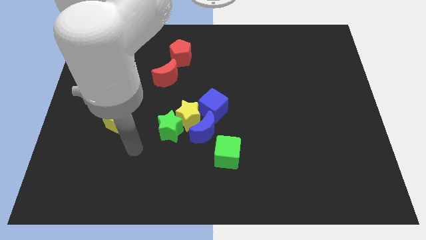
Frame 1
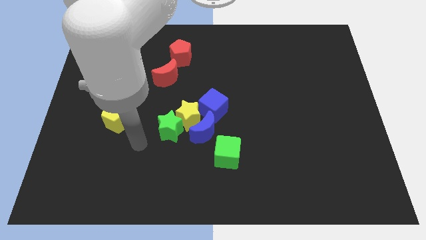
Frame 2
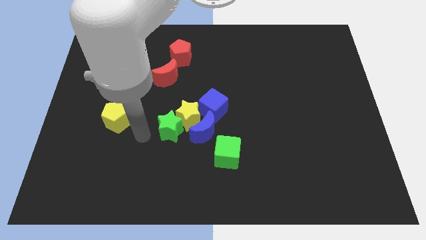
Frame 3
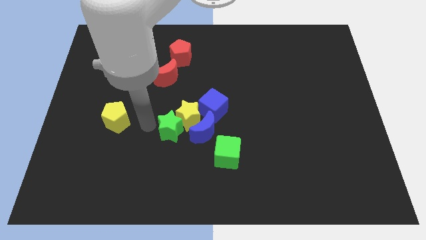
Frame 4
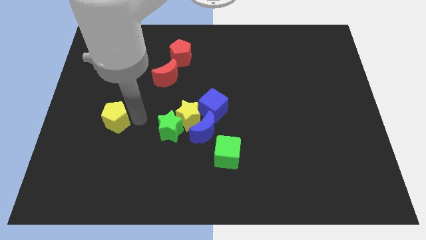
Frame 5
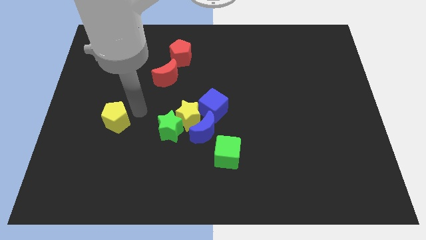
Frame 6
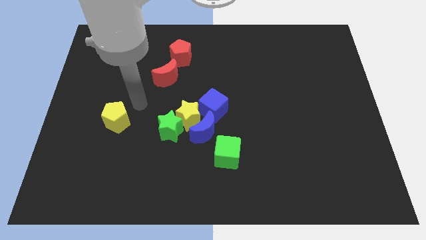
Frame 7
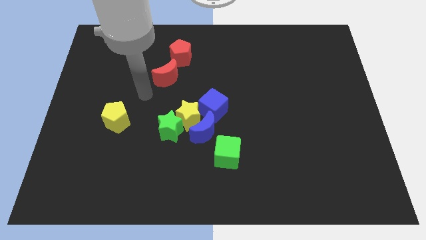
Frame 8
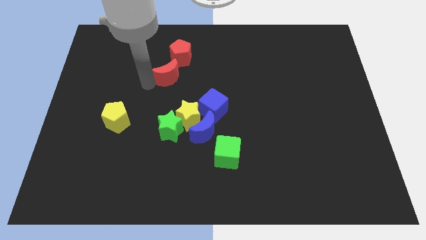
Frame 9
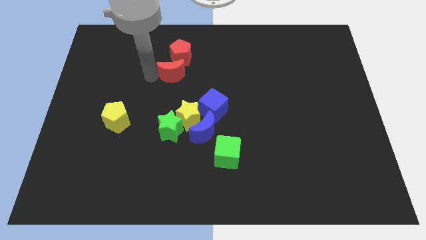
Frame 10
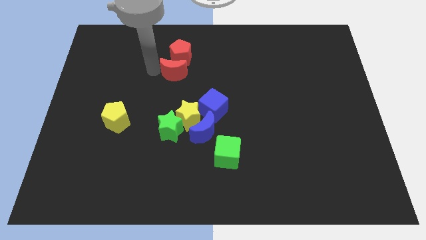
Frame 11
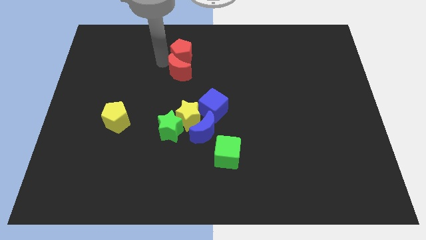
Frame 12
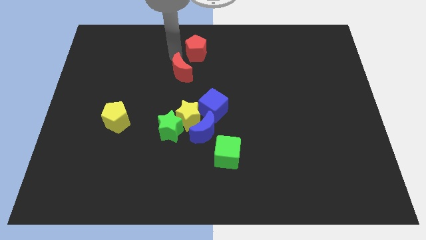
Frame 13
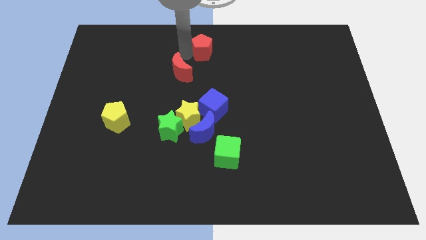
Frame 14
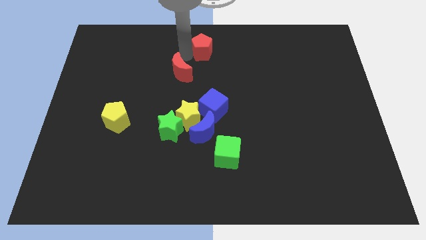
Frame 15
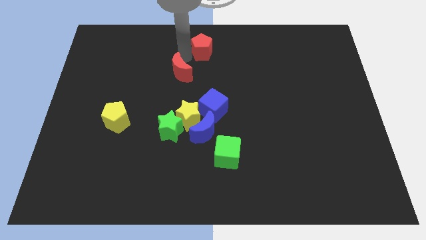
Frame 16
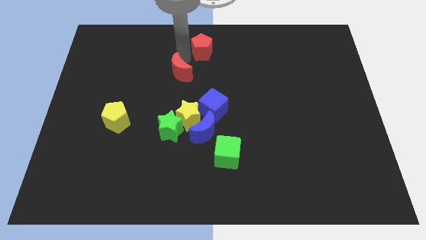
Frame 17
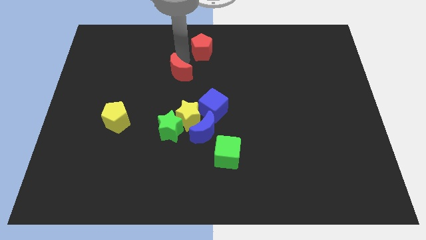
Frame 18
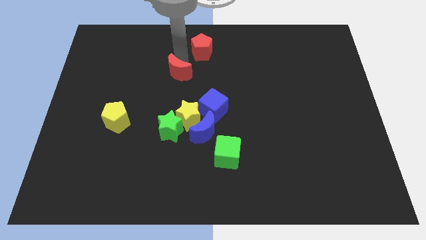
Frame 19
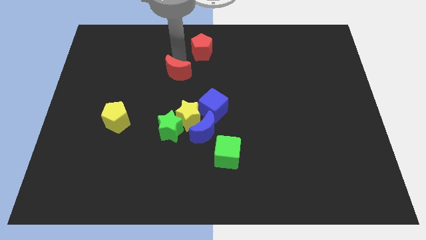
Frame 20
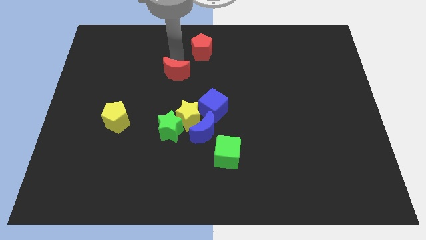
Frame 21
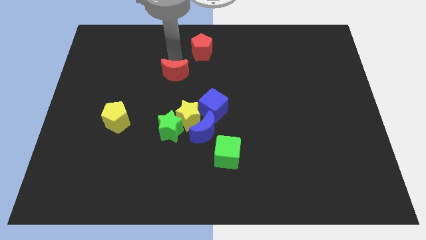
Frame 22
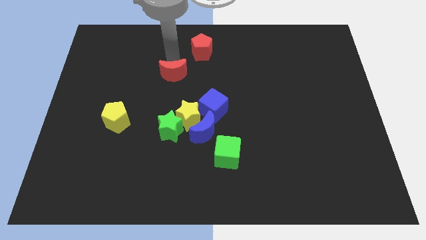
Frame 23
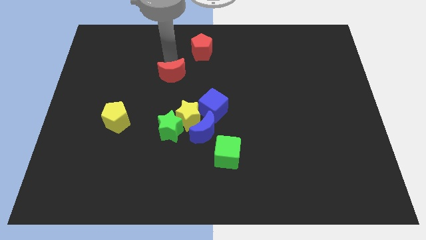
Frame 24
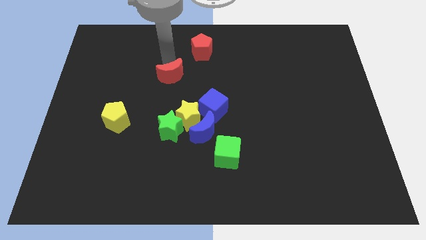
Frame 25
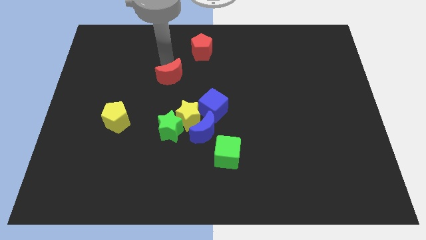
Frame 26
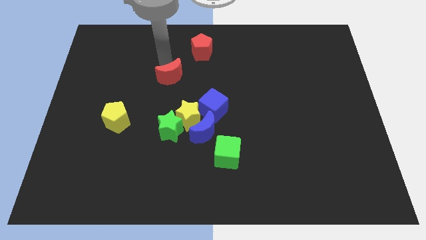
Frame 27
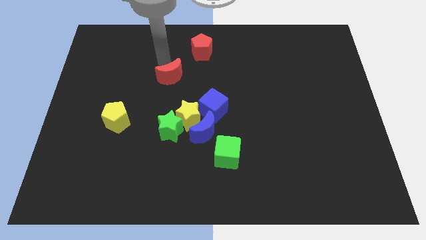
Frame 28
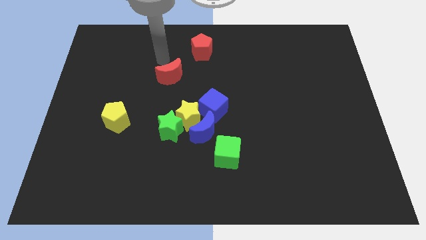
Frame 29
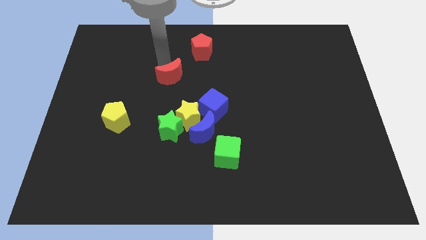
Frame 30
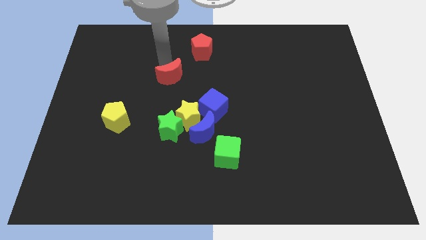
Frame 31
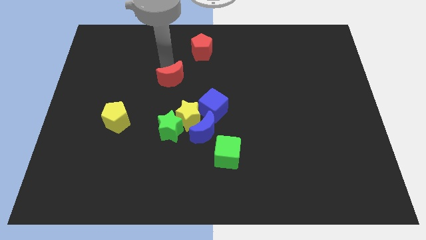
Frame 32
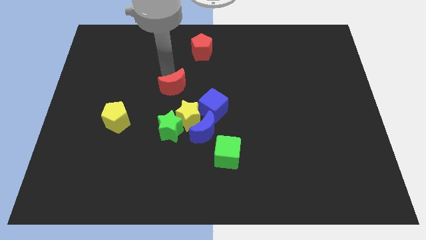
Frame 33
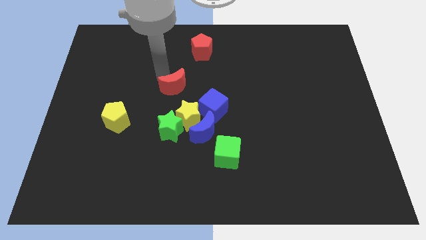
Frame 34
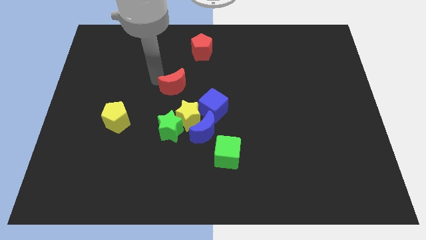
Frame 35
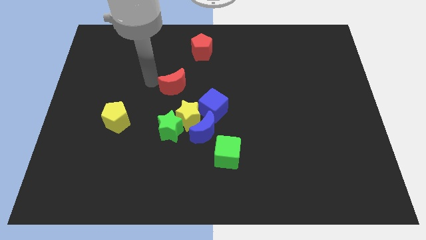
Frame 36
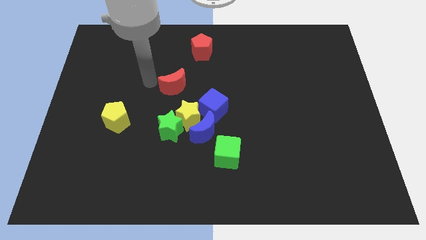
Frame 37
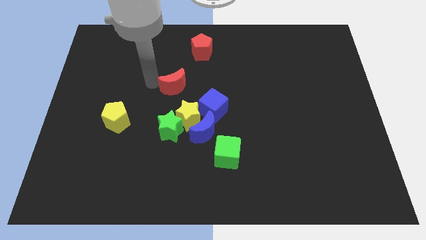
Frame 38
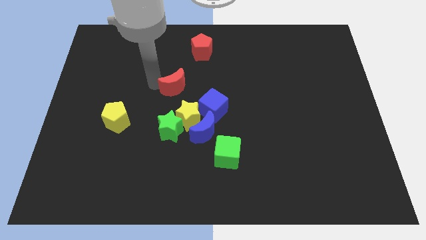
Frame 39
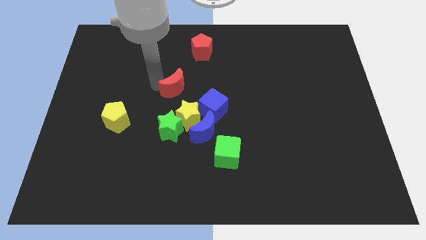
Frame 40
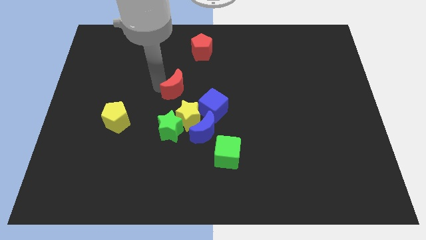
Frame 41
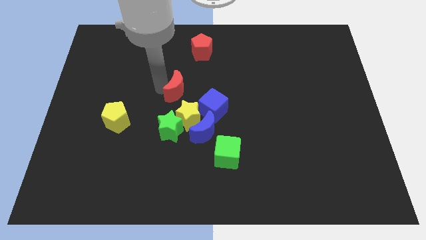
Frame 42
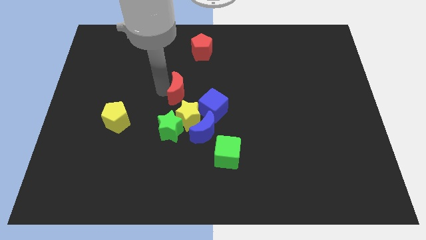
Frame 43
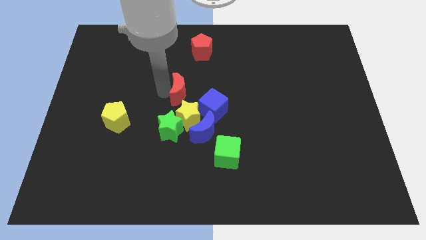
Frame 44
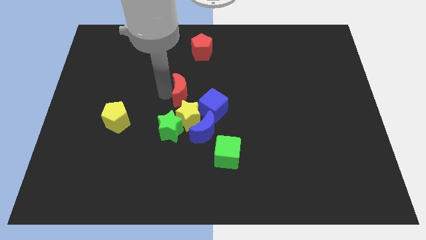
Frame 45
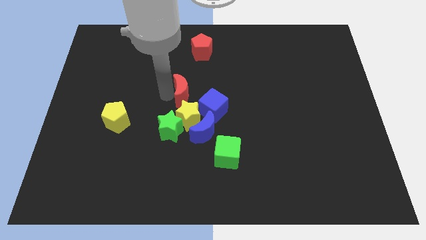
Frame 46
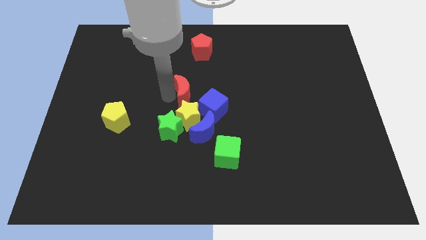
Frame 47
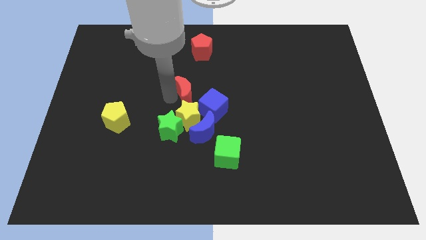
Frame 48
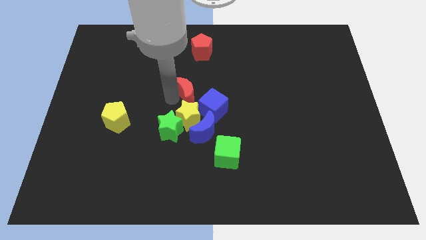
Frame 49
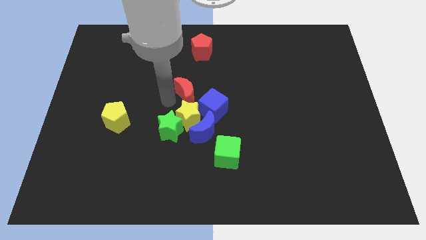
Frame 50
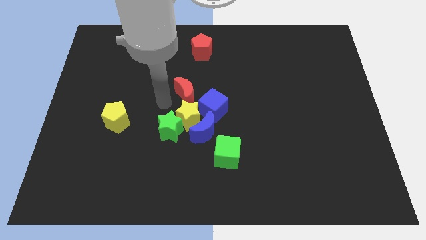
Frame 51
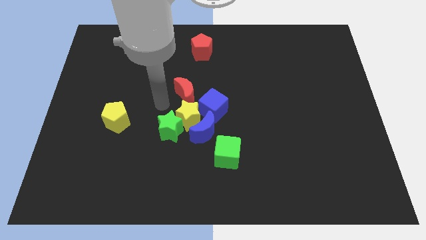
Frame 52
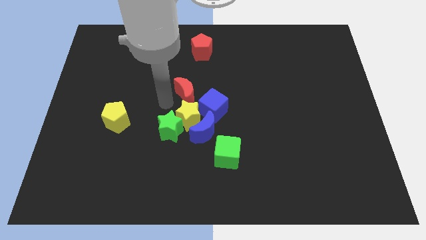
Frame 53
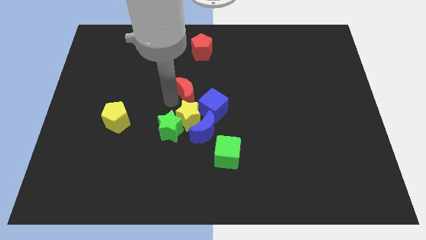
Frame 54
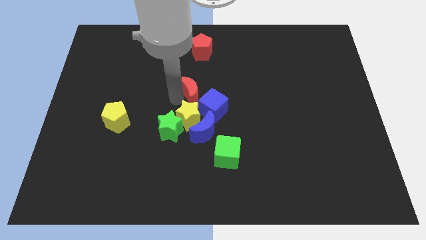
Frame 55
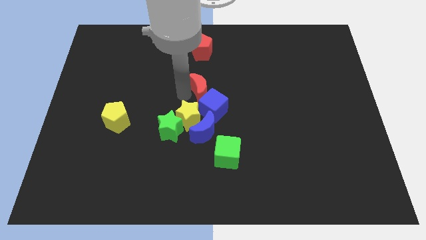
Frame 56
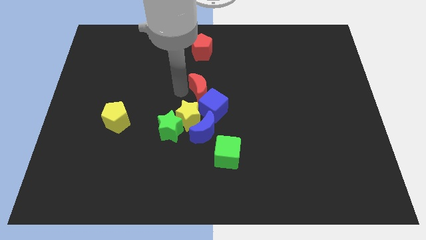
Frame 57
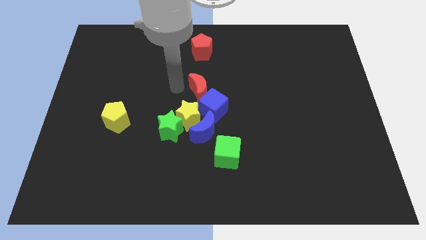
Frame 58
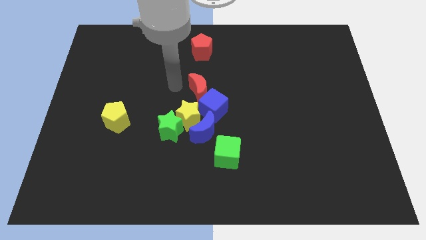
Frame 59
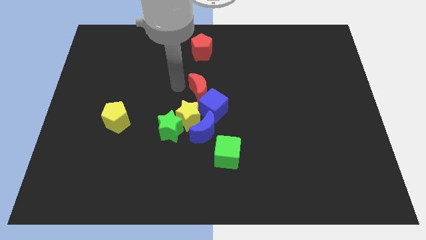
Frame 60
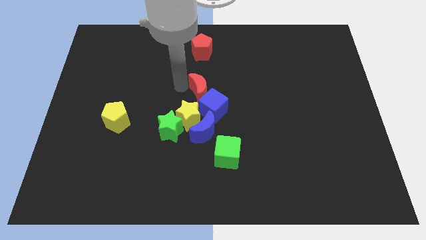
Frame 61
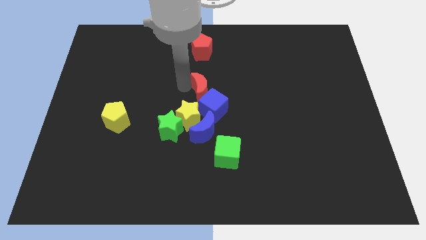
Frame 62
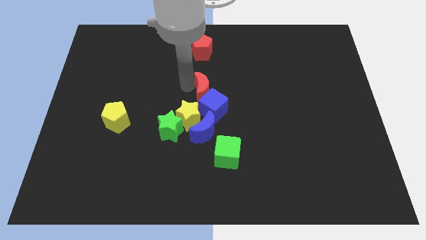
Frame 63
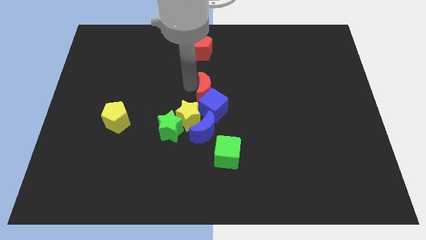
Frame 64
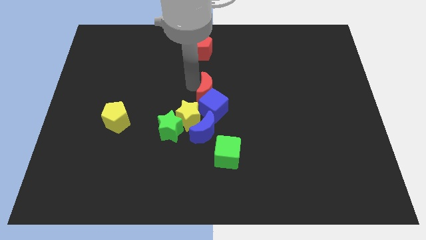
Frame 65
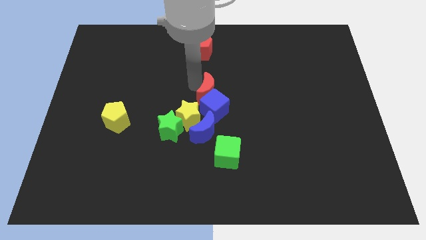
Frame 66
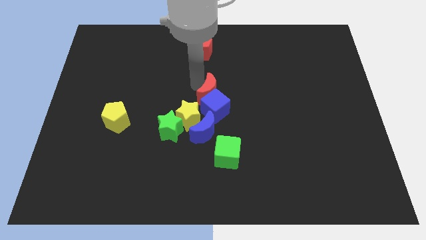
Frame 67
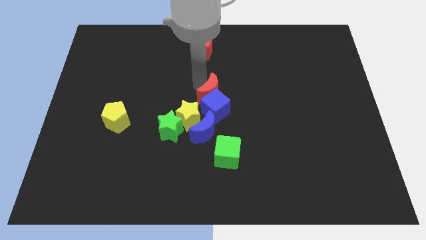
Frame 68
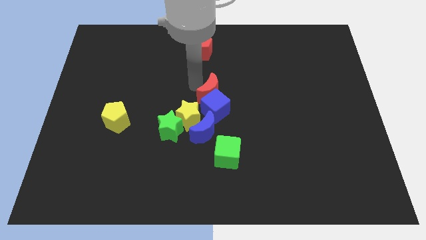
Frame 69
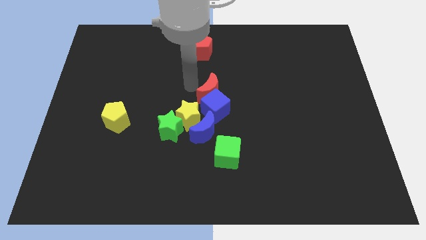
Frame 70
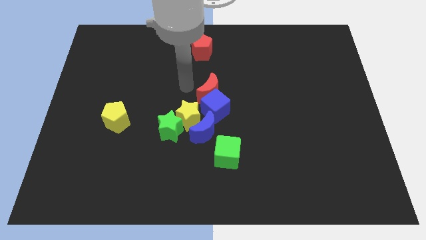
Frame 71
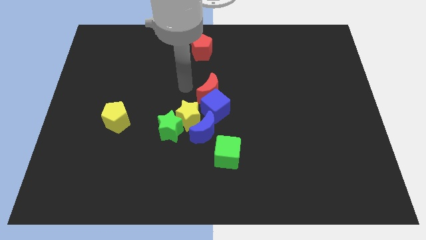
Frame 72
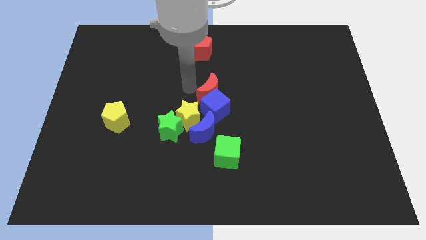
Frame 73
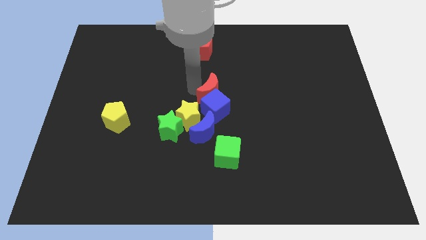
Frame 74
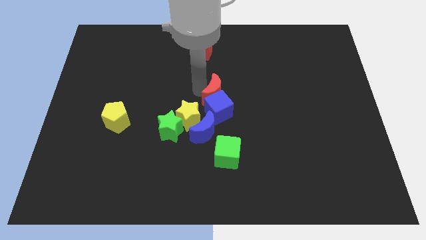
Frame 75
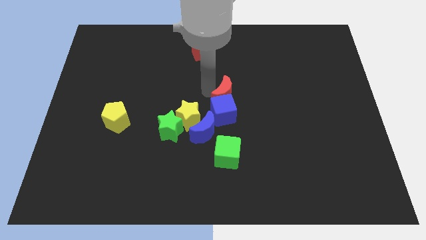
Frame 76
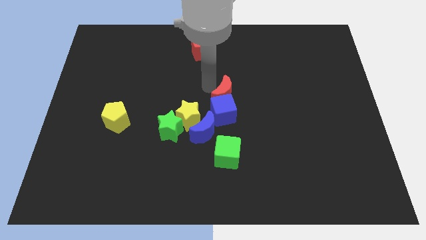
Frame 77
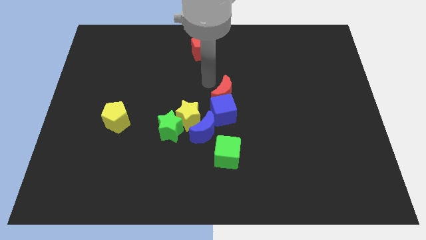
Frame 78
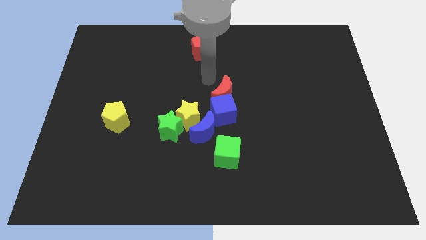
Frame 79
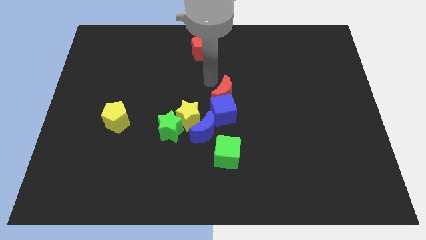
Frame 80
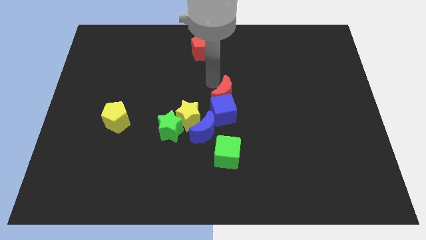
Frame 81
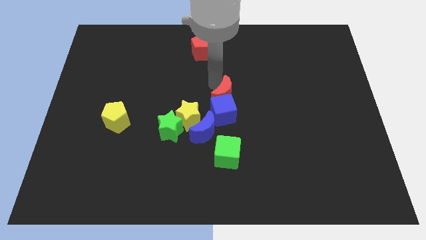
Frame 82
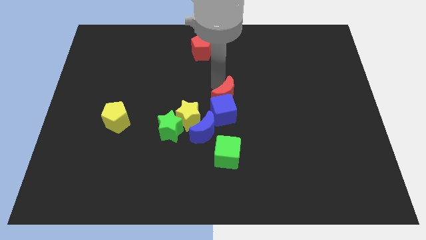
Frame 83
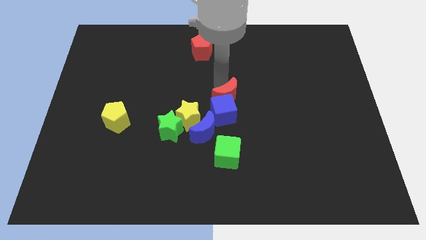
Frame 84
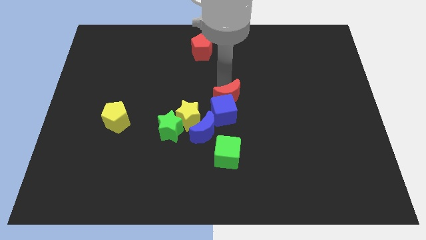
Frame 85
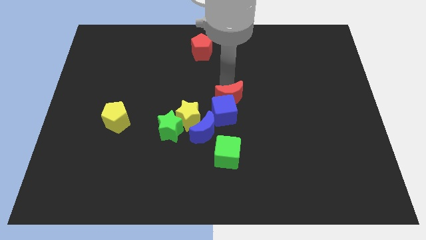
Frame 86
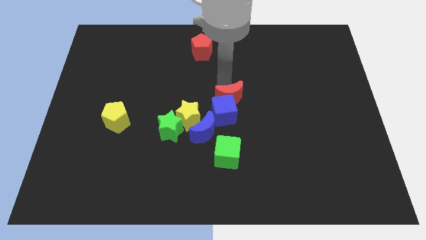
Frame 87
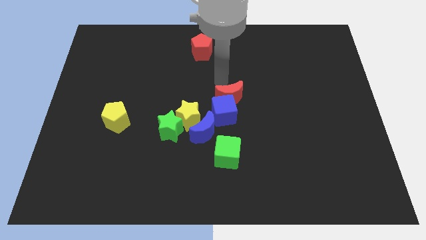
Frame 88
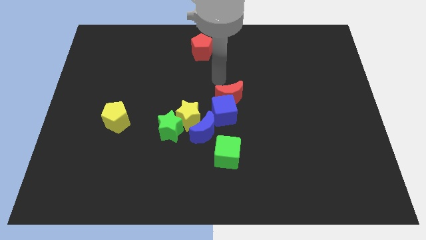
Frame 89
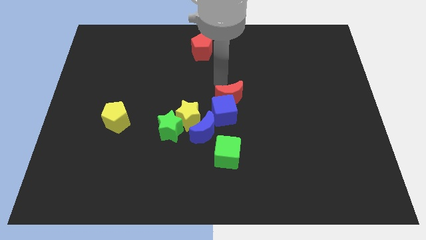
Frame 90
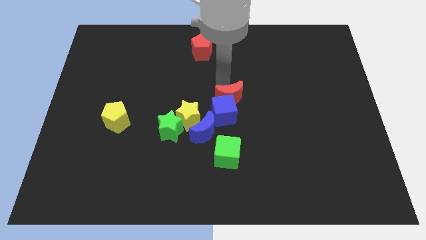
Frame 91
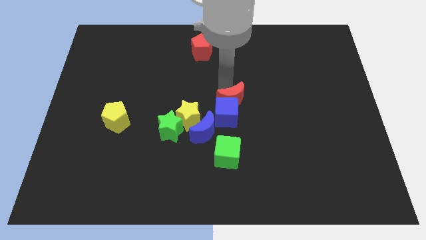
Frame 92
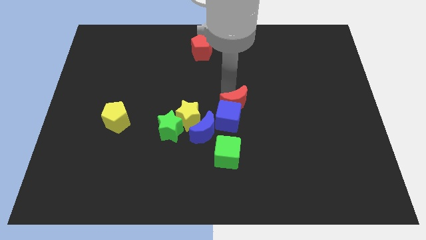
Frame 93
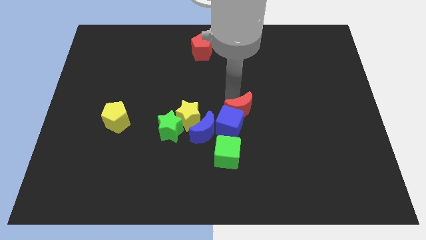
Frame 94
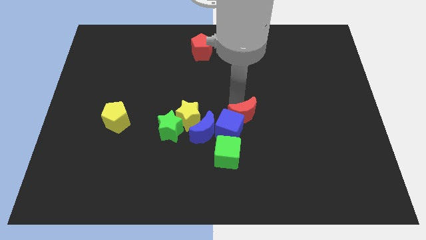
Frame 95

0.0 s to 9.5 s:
move the red moon diagonally down and right
